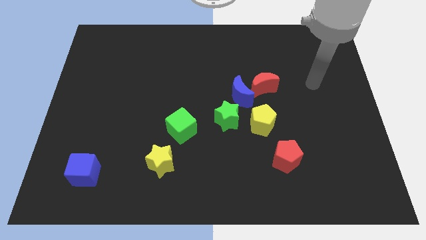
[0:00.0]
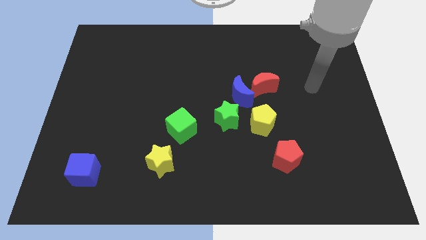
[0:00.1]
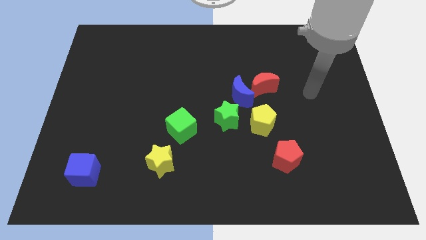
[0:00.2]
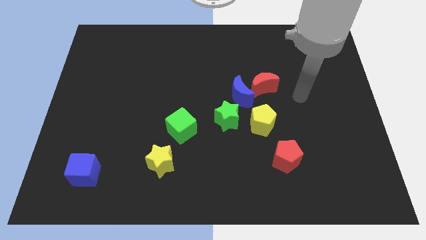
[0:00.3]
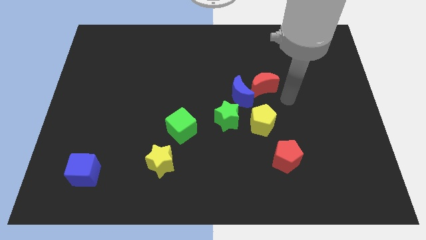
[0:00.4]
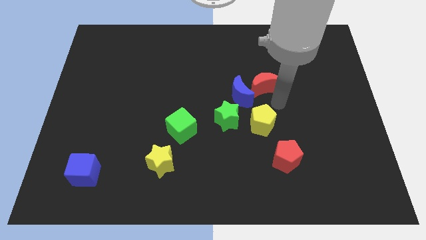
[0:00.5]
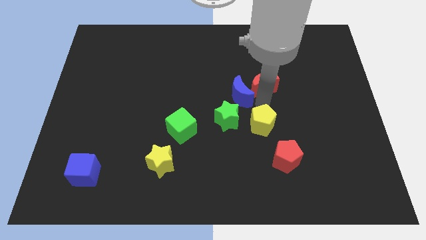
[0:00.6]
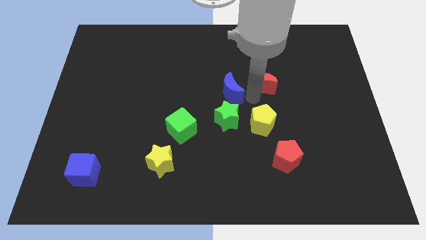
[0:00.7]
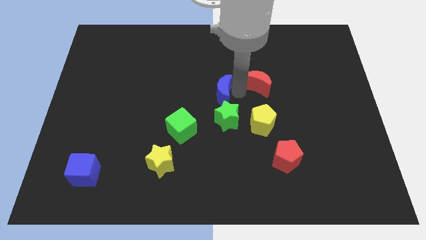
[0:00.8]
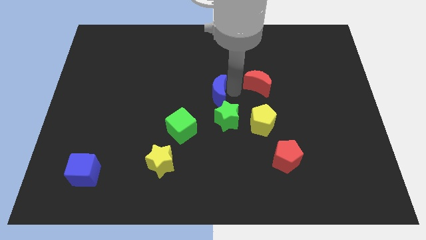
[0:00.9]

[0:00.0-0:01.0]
move the red moon away from the blue moon

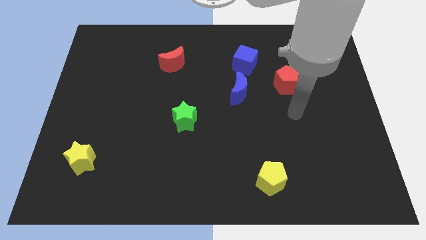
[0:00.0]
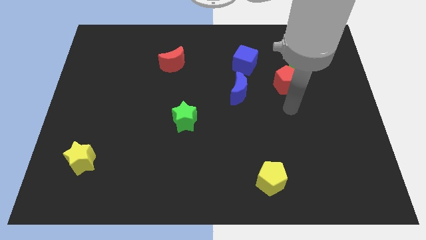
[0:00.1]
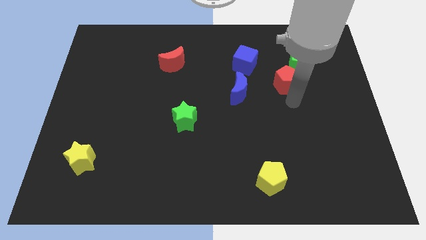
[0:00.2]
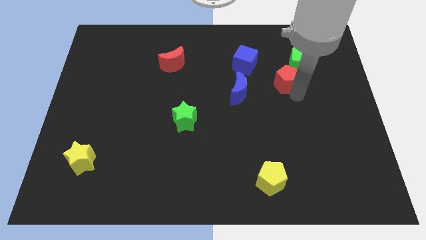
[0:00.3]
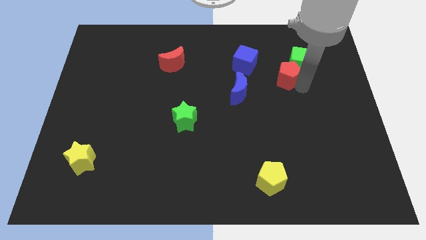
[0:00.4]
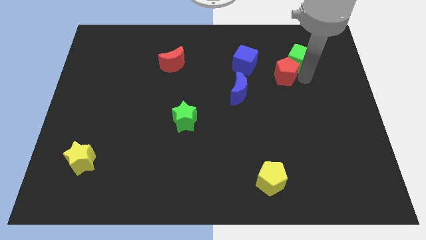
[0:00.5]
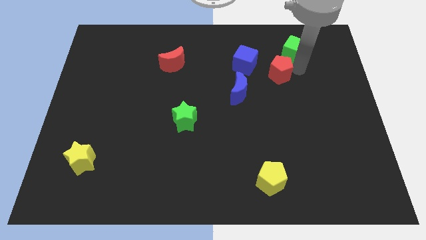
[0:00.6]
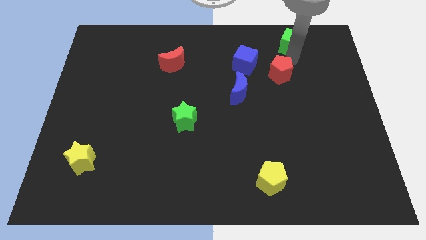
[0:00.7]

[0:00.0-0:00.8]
move the red pentagon away from the green cube

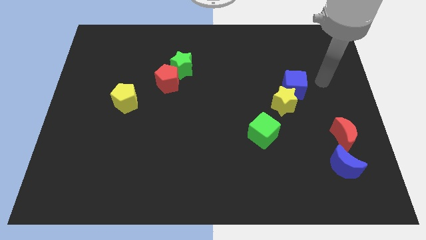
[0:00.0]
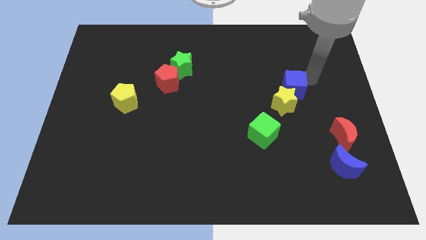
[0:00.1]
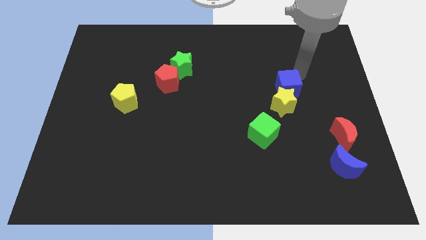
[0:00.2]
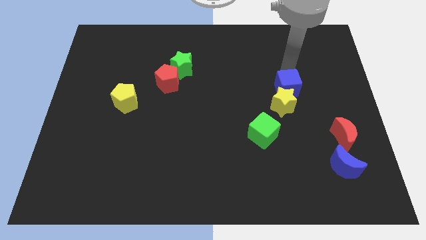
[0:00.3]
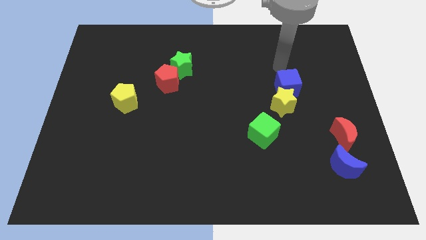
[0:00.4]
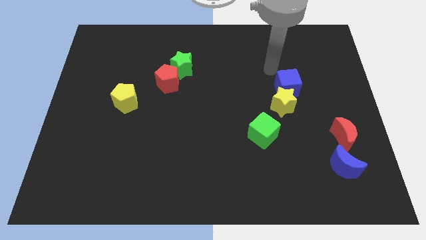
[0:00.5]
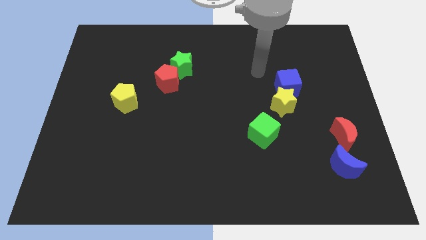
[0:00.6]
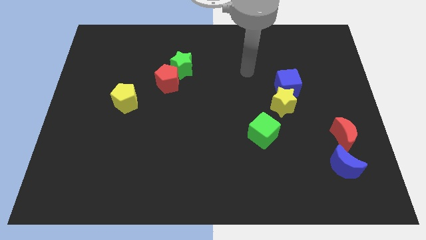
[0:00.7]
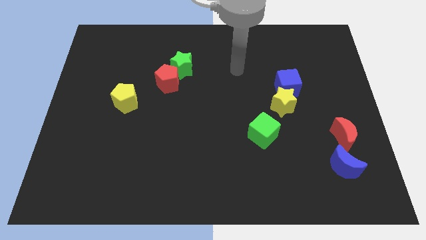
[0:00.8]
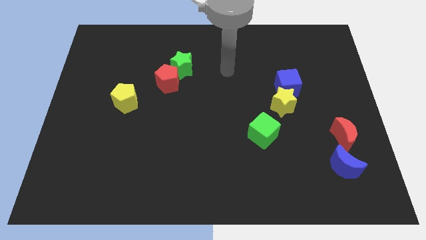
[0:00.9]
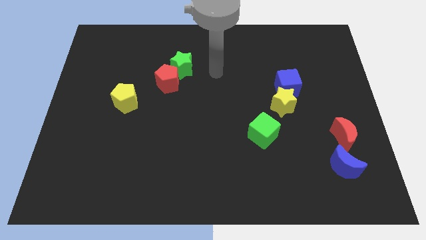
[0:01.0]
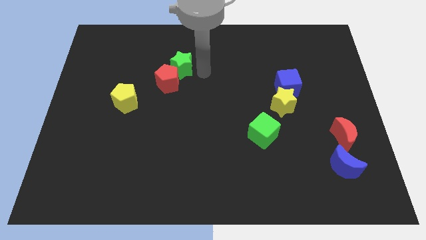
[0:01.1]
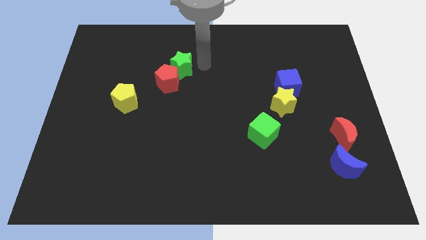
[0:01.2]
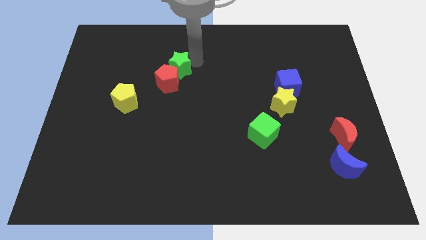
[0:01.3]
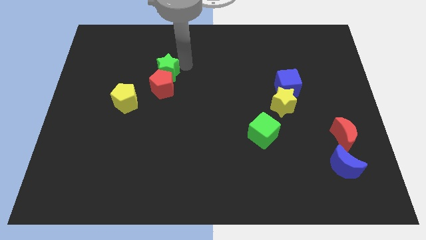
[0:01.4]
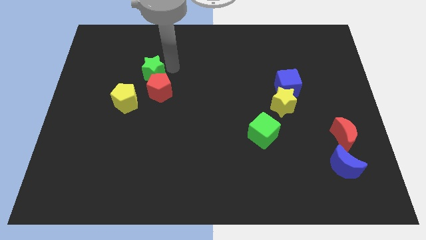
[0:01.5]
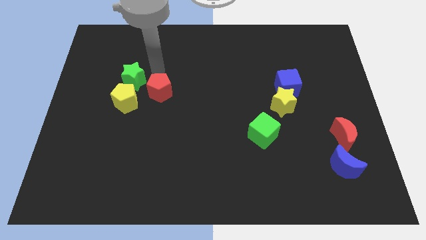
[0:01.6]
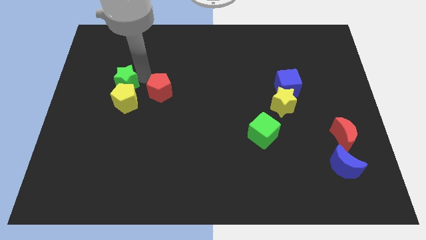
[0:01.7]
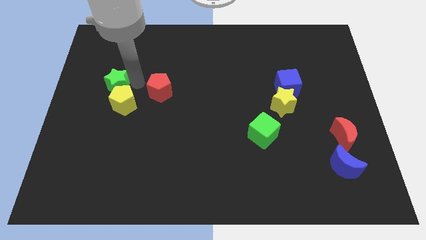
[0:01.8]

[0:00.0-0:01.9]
move the red pentagon away from the green star

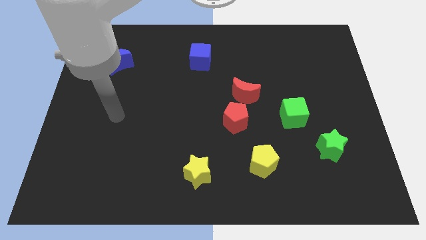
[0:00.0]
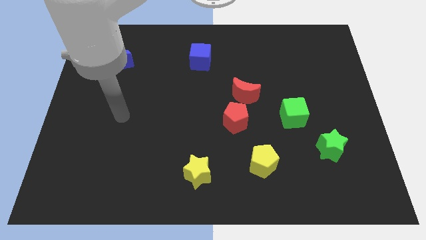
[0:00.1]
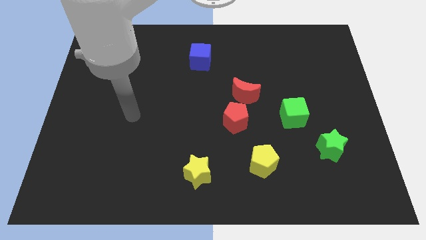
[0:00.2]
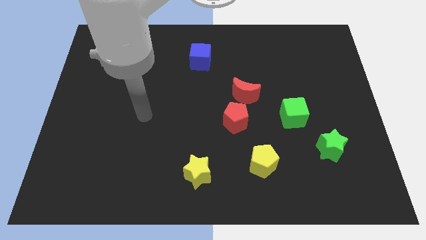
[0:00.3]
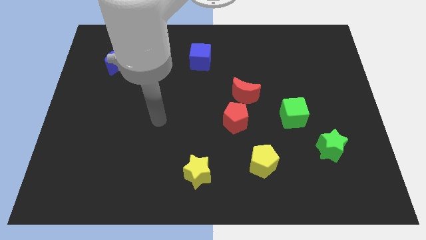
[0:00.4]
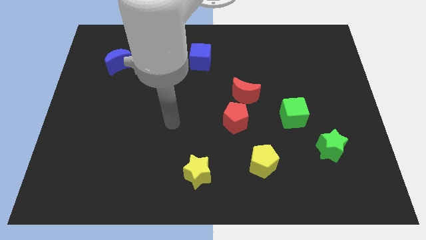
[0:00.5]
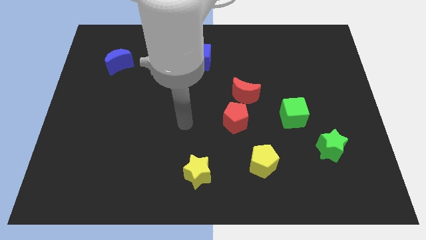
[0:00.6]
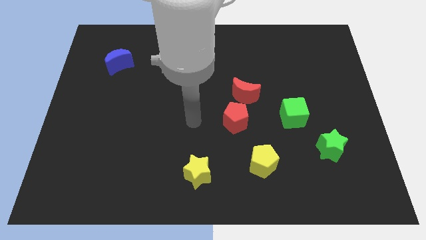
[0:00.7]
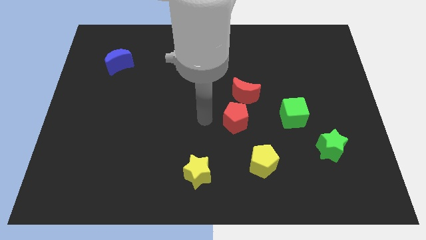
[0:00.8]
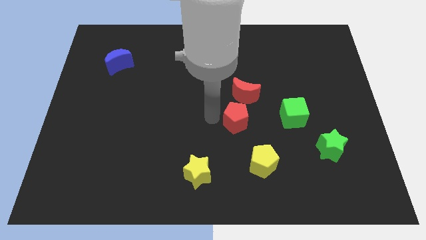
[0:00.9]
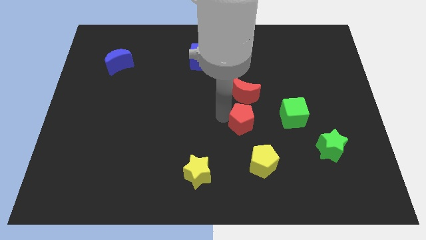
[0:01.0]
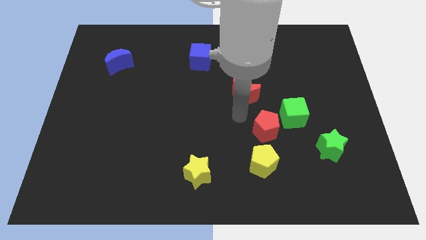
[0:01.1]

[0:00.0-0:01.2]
pull the red moon apart from the red pentagon

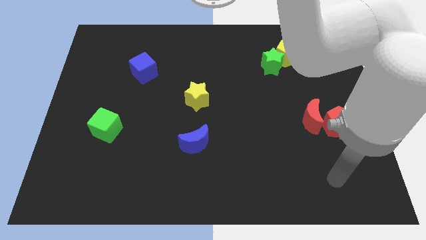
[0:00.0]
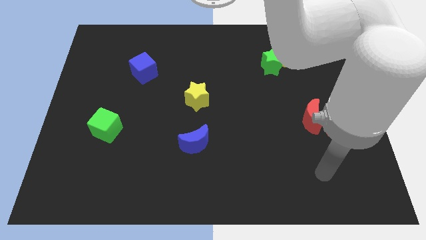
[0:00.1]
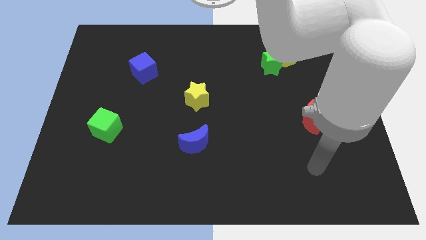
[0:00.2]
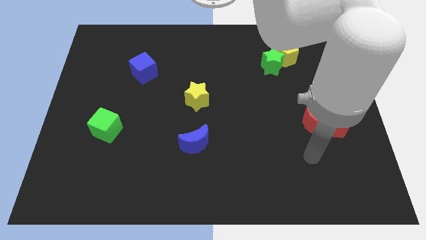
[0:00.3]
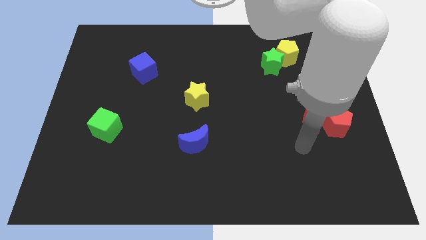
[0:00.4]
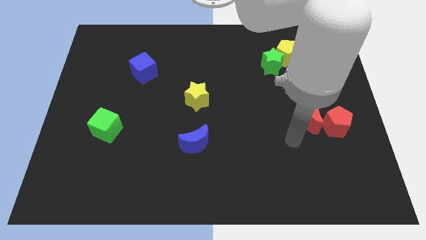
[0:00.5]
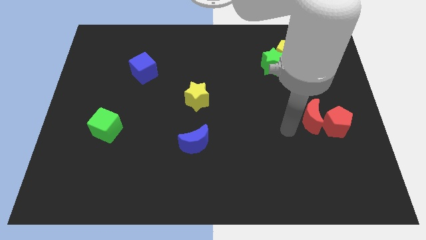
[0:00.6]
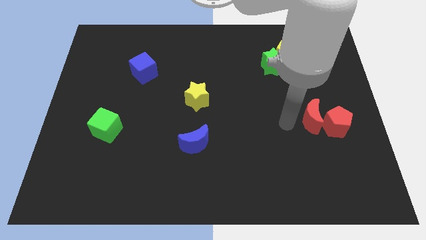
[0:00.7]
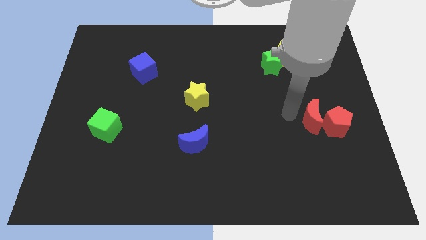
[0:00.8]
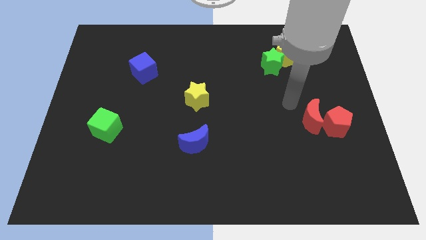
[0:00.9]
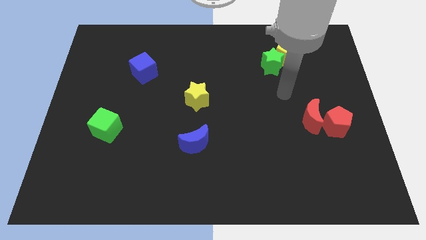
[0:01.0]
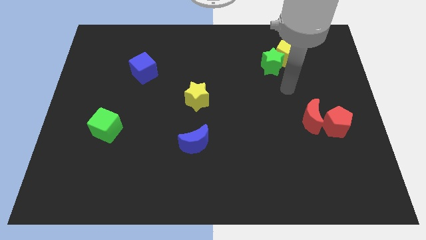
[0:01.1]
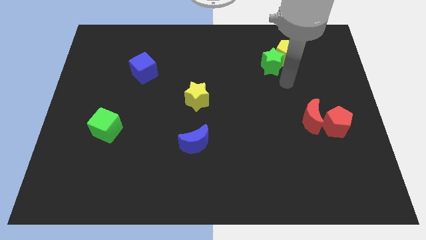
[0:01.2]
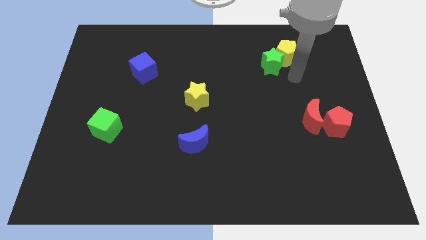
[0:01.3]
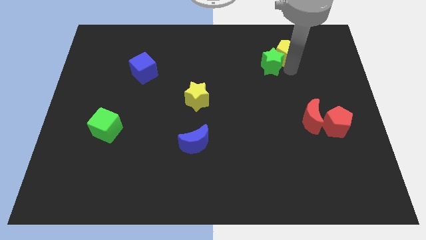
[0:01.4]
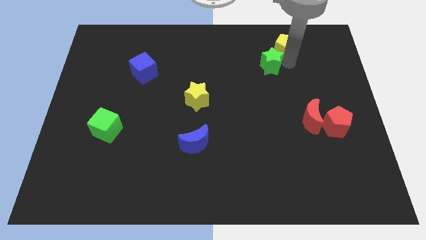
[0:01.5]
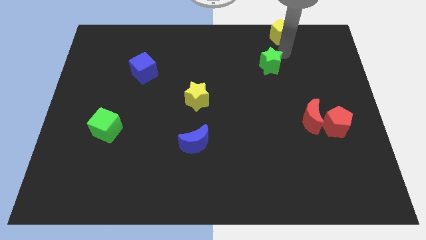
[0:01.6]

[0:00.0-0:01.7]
pull the green star apart from the yellow pentagon

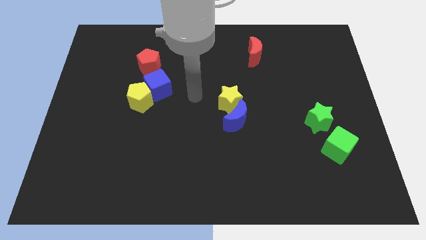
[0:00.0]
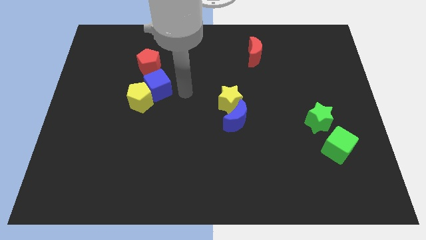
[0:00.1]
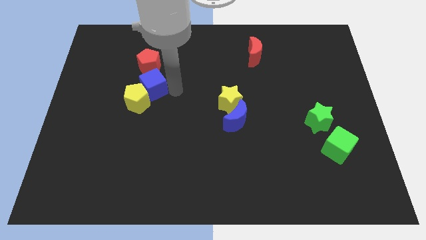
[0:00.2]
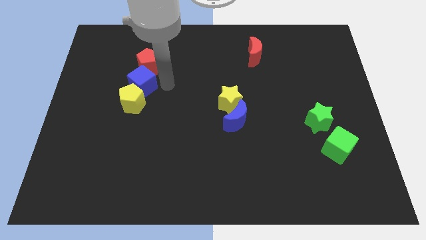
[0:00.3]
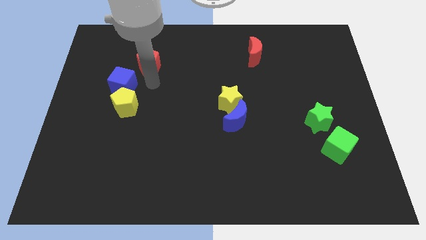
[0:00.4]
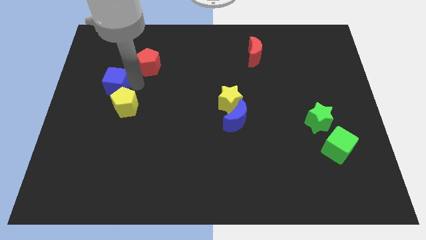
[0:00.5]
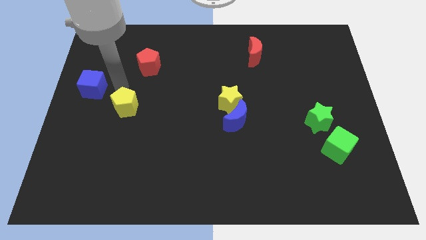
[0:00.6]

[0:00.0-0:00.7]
pull the yellow pentagon apart from the blue cube

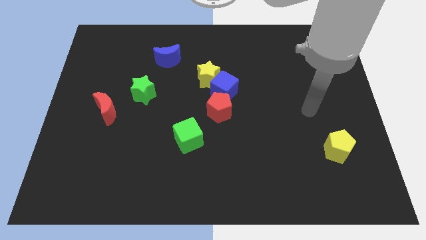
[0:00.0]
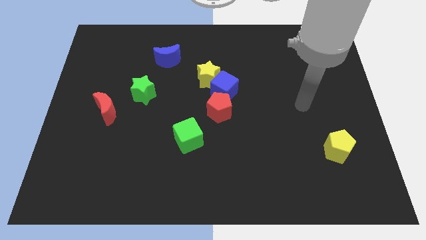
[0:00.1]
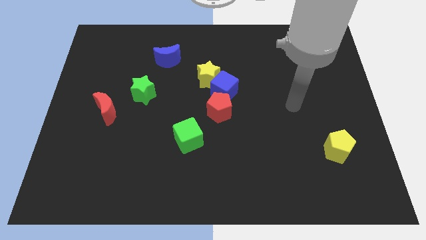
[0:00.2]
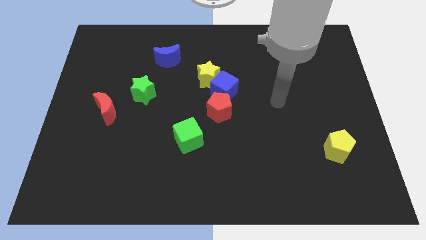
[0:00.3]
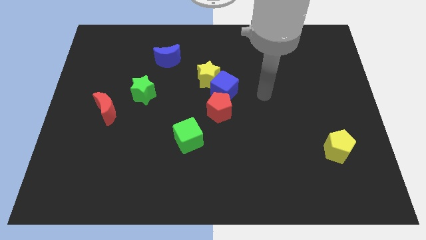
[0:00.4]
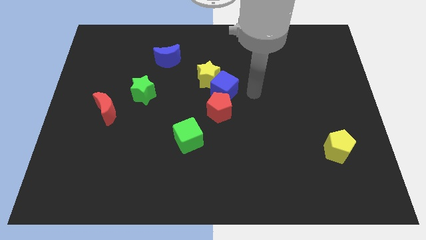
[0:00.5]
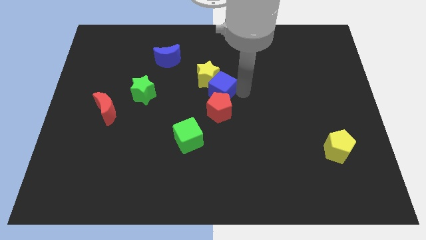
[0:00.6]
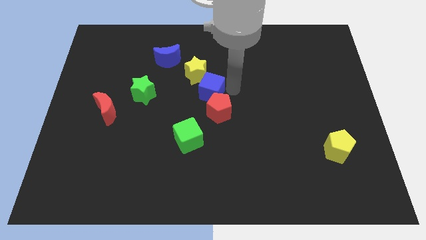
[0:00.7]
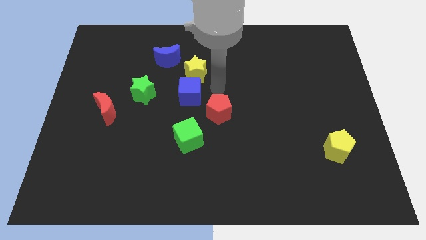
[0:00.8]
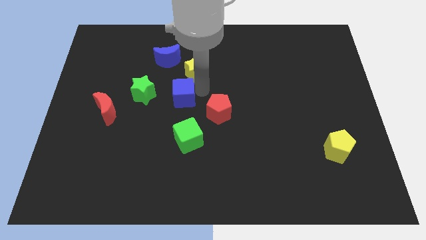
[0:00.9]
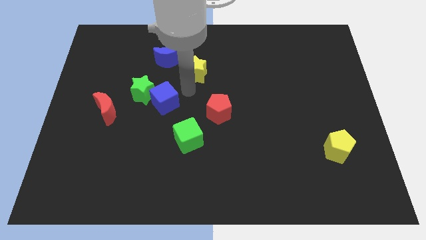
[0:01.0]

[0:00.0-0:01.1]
move the yellow star away from the blue cube

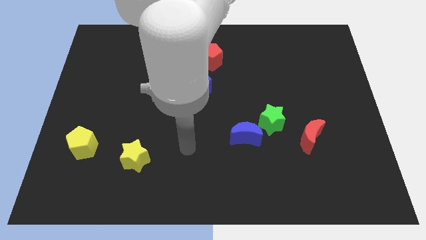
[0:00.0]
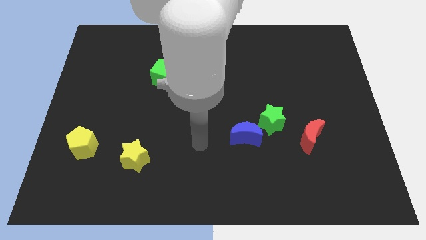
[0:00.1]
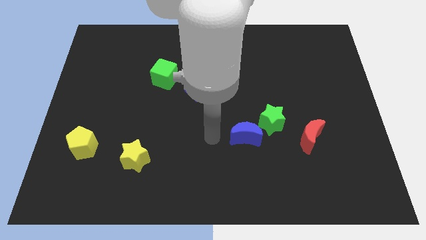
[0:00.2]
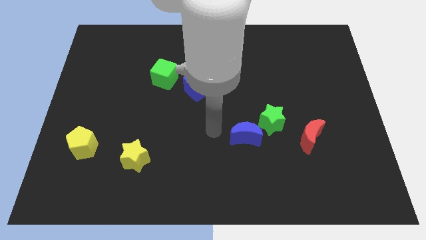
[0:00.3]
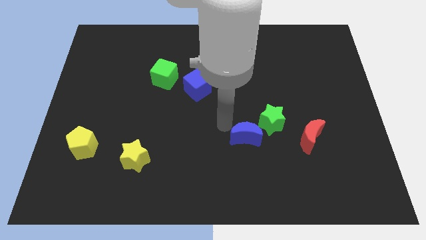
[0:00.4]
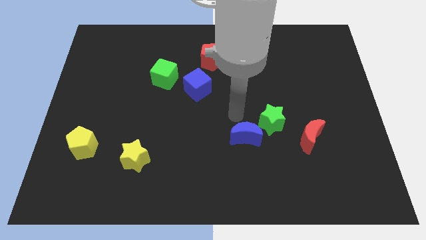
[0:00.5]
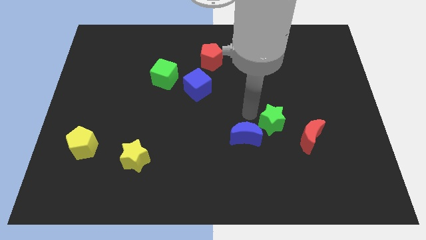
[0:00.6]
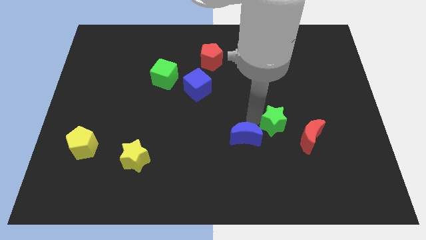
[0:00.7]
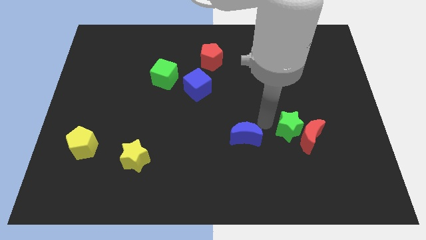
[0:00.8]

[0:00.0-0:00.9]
move the blue moon away from the green star
